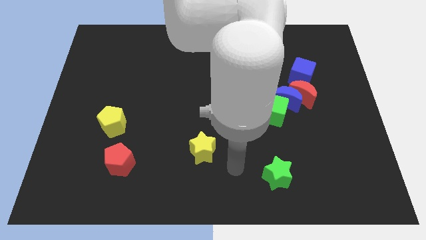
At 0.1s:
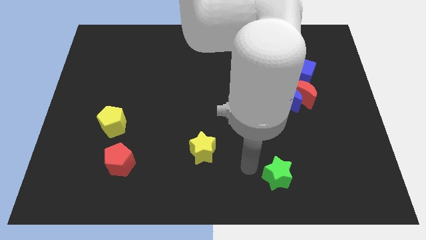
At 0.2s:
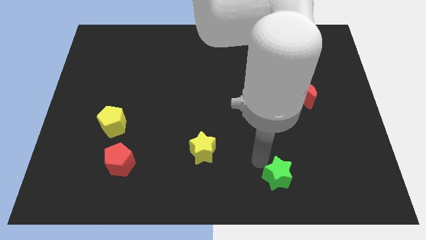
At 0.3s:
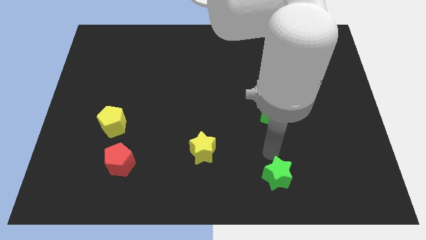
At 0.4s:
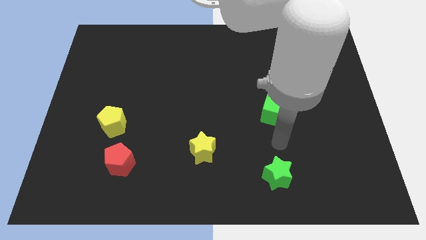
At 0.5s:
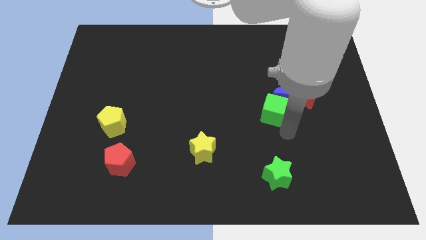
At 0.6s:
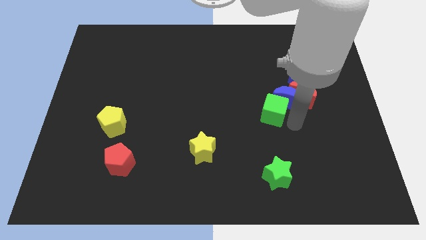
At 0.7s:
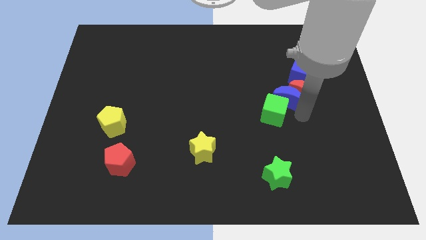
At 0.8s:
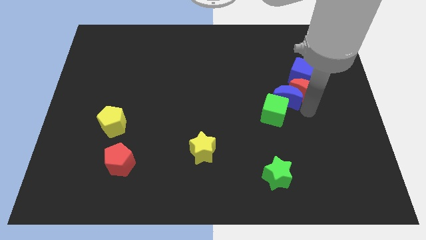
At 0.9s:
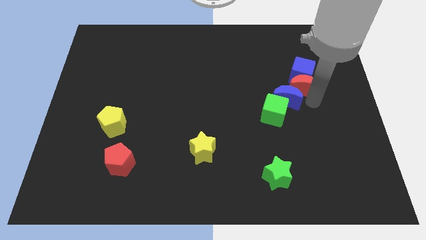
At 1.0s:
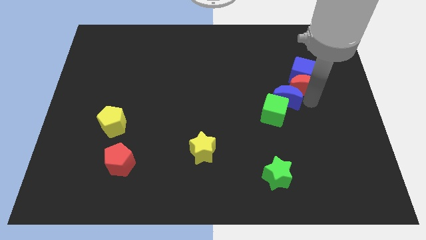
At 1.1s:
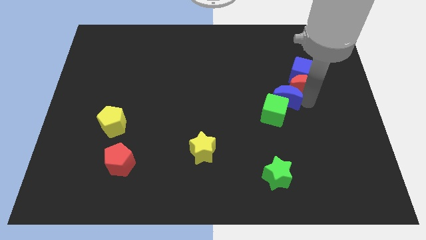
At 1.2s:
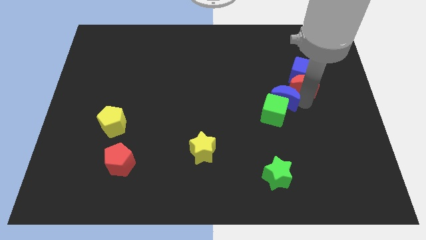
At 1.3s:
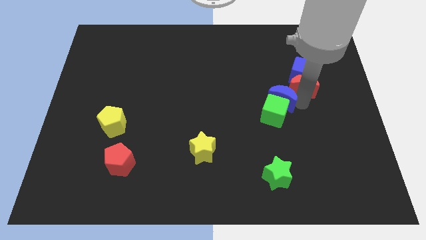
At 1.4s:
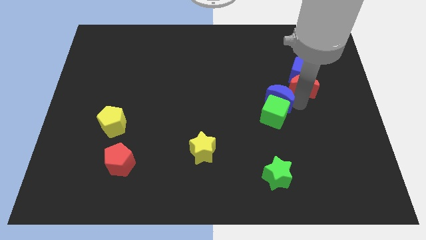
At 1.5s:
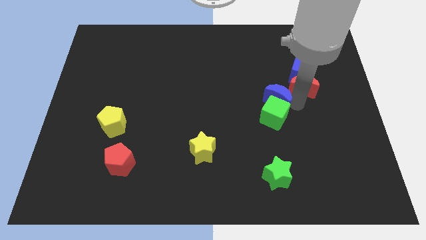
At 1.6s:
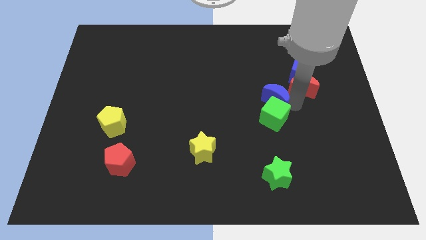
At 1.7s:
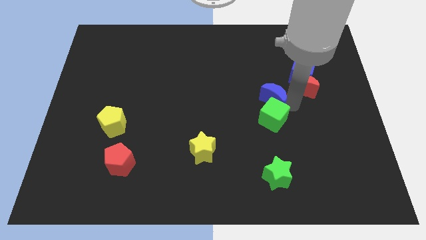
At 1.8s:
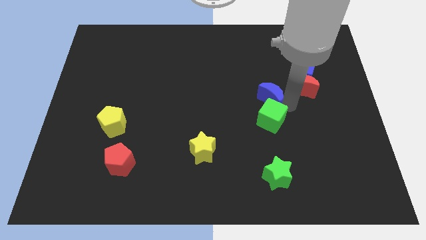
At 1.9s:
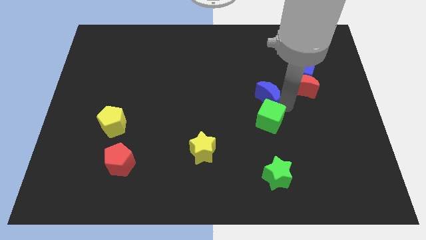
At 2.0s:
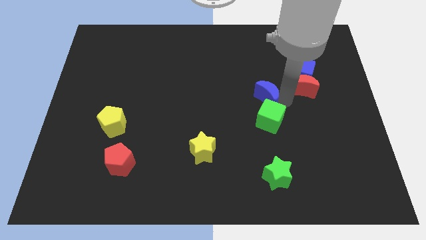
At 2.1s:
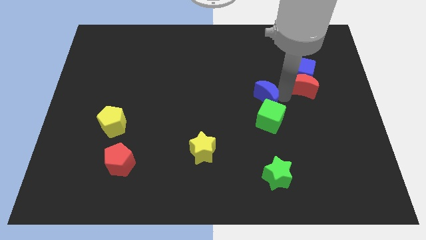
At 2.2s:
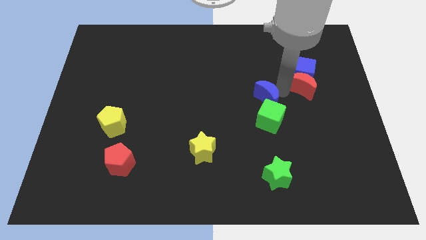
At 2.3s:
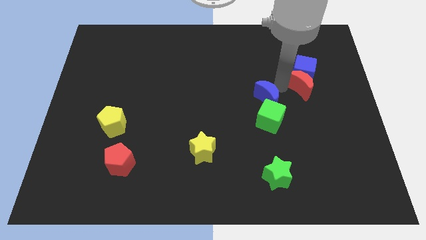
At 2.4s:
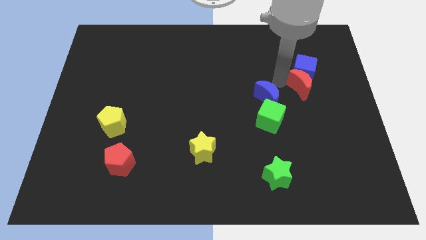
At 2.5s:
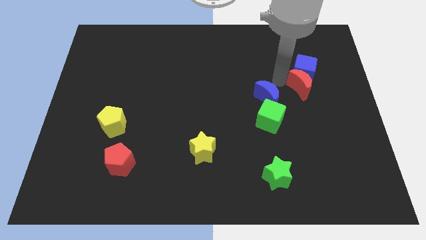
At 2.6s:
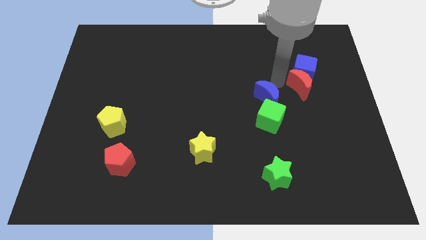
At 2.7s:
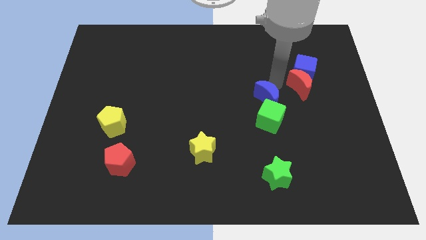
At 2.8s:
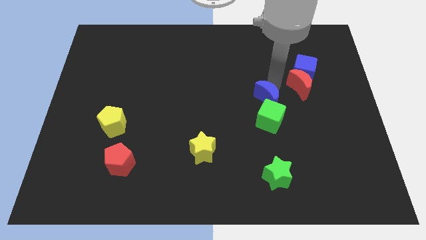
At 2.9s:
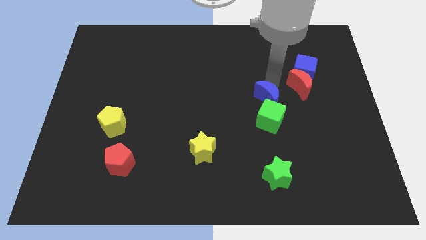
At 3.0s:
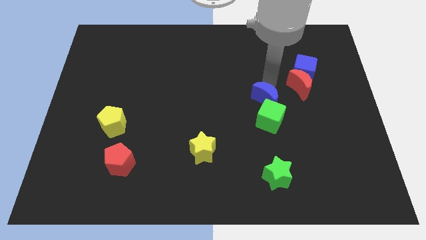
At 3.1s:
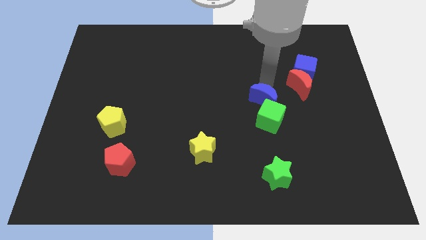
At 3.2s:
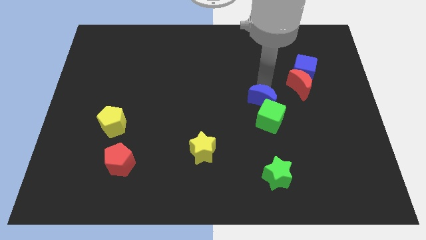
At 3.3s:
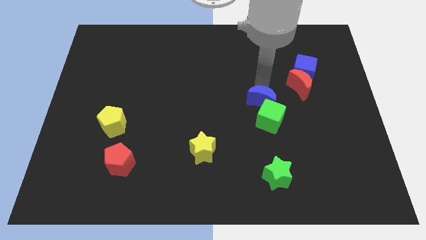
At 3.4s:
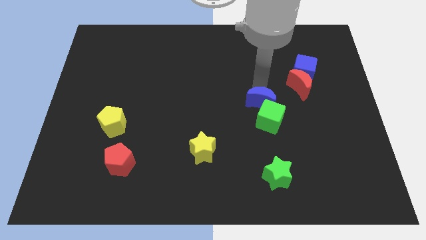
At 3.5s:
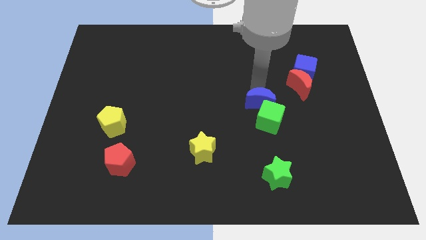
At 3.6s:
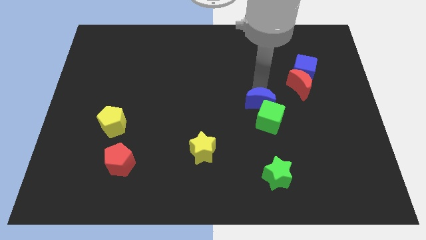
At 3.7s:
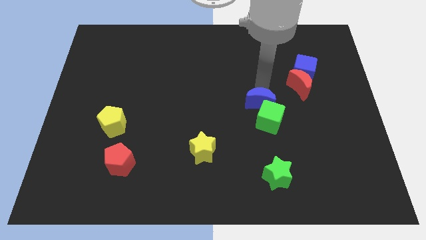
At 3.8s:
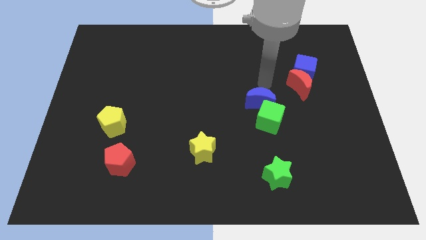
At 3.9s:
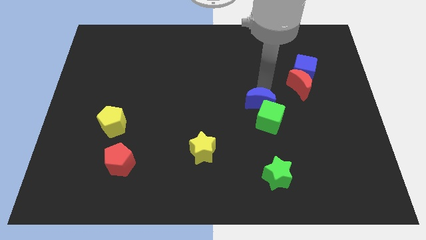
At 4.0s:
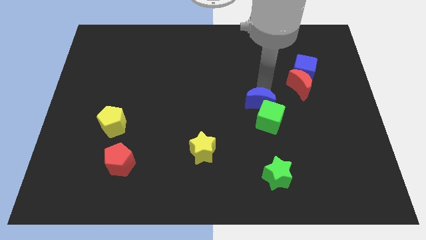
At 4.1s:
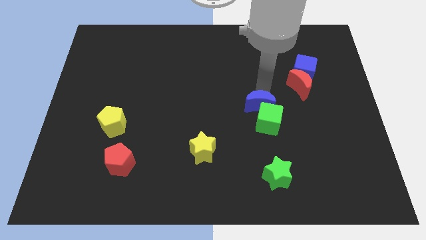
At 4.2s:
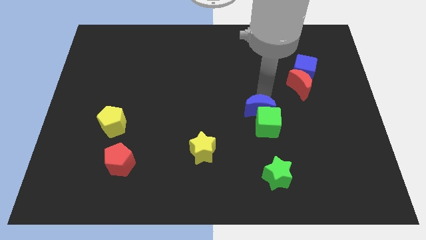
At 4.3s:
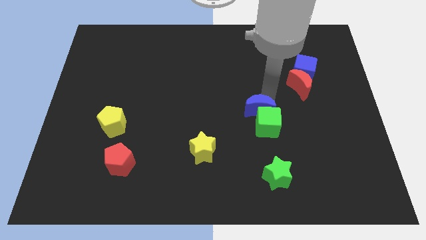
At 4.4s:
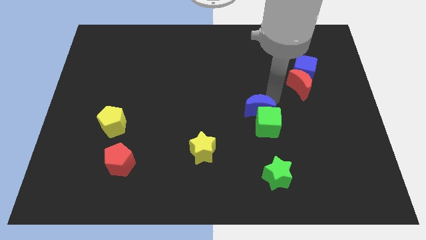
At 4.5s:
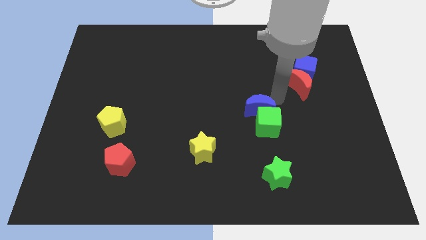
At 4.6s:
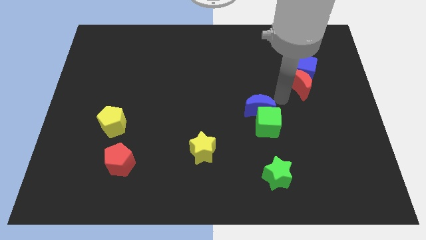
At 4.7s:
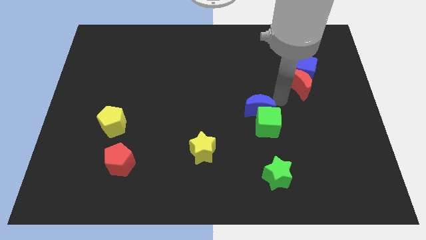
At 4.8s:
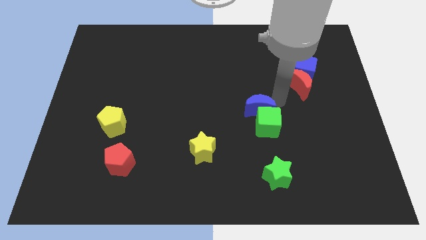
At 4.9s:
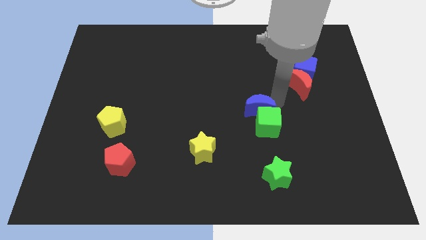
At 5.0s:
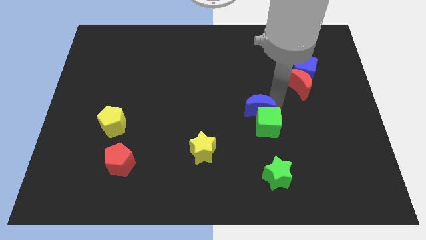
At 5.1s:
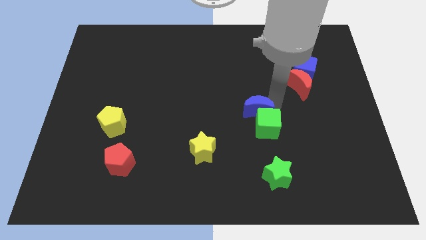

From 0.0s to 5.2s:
pull the blue moon apart from the red moon, green cube, and blue cube

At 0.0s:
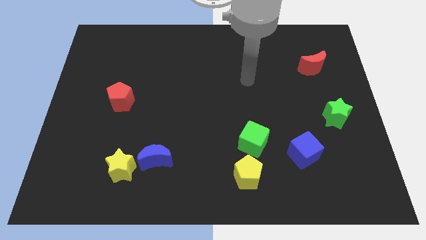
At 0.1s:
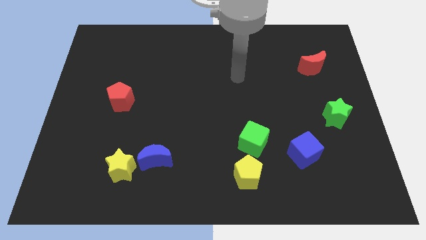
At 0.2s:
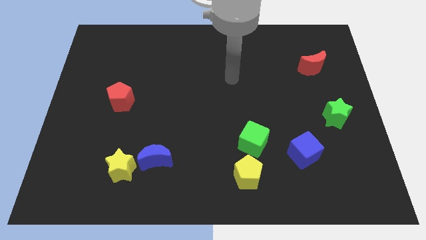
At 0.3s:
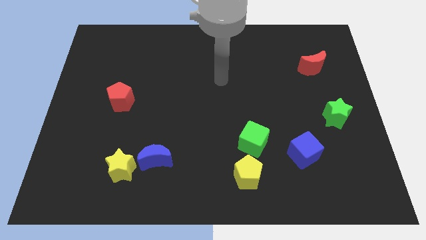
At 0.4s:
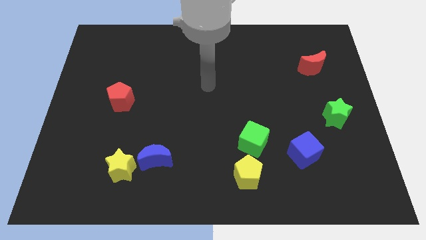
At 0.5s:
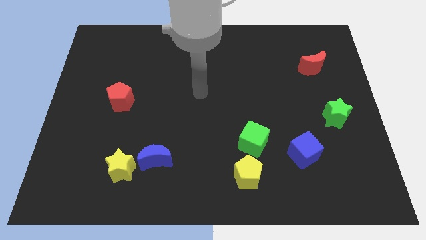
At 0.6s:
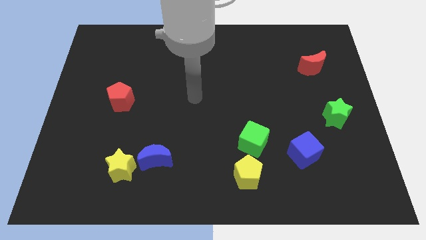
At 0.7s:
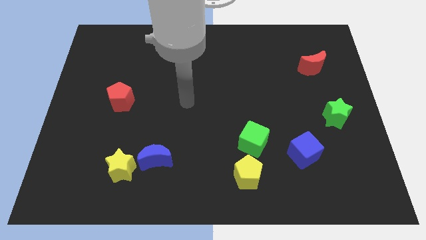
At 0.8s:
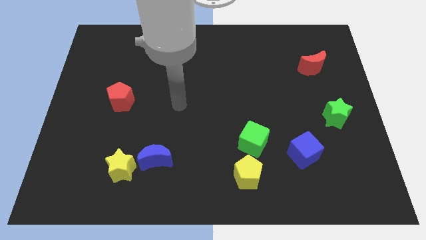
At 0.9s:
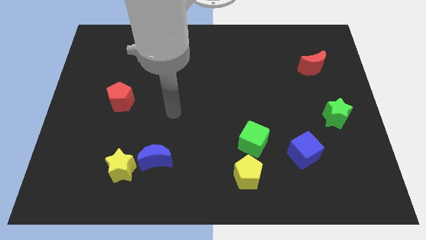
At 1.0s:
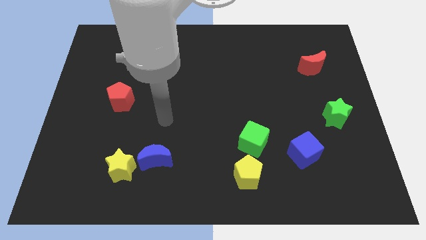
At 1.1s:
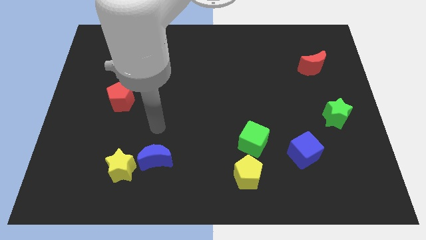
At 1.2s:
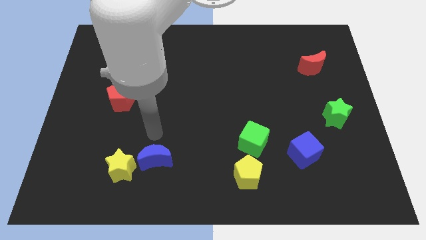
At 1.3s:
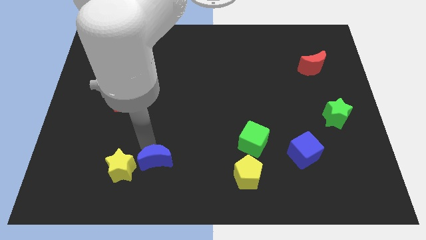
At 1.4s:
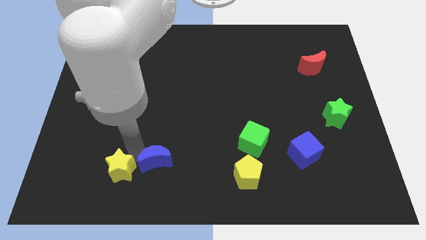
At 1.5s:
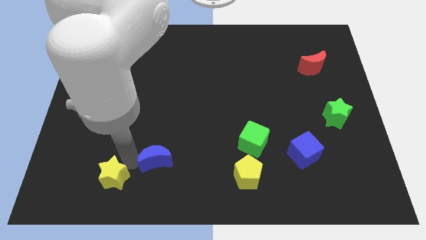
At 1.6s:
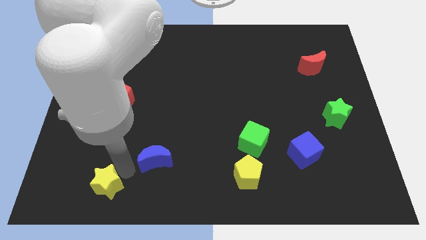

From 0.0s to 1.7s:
separate the blue moon from the yellow star

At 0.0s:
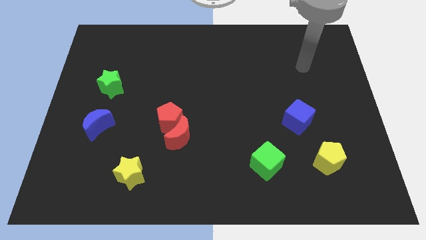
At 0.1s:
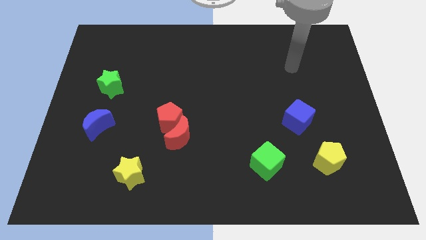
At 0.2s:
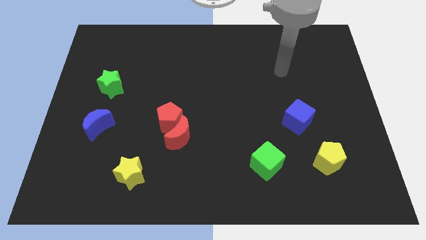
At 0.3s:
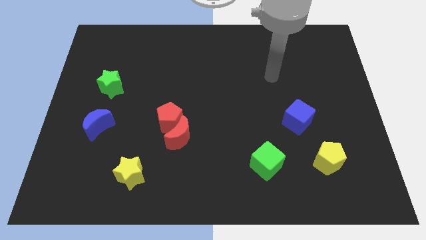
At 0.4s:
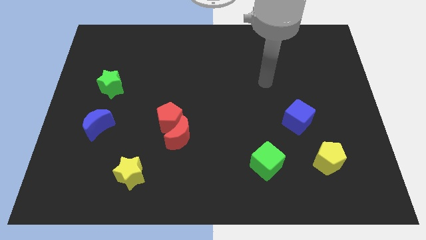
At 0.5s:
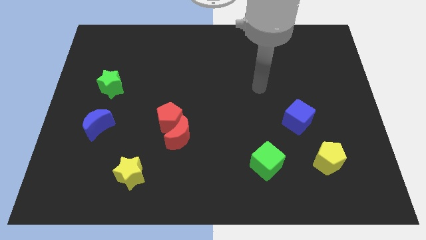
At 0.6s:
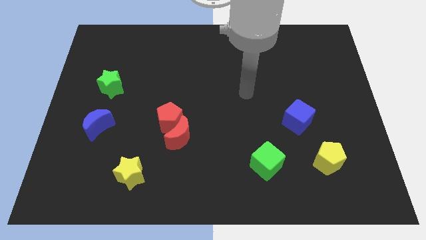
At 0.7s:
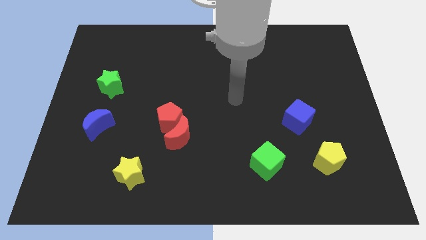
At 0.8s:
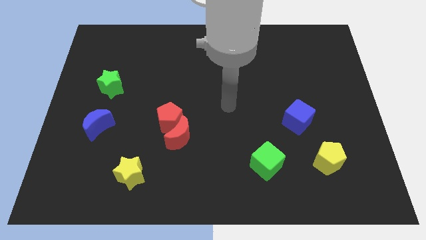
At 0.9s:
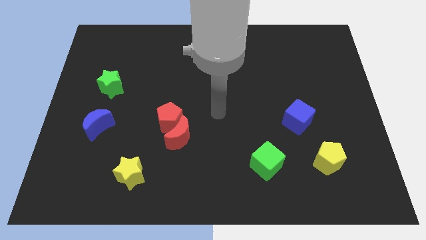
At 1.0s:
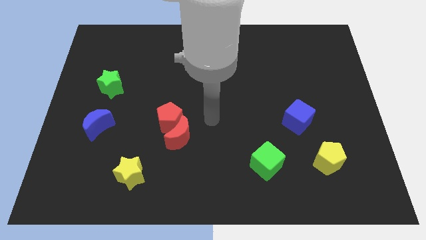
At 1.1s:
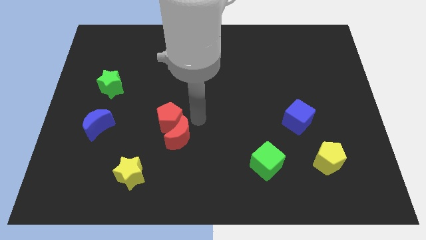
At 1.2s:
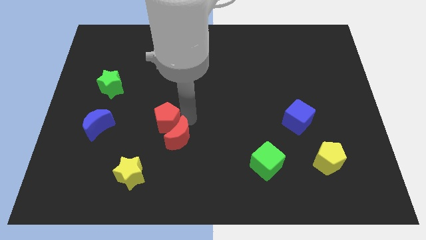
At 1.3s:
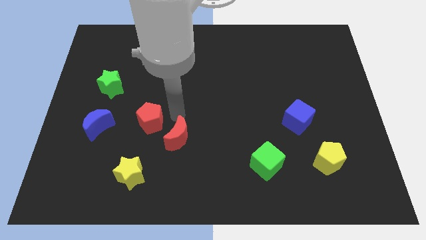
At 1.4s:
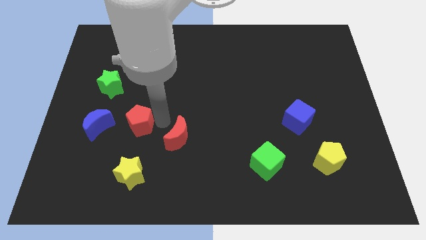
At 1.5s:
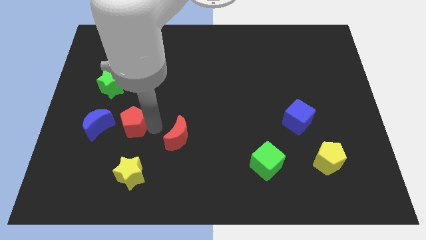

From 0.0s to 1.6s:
separate the red moon from the red pentagon

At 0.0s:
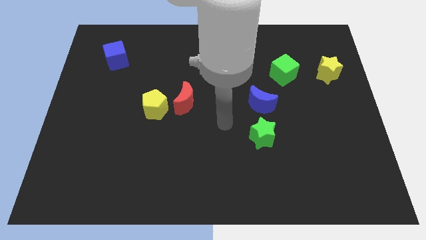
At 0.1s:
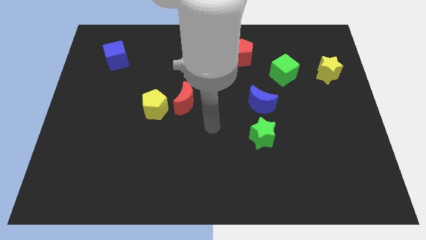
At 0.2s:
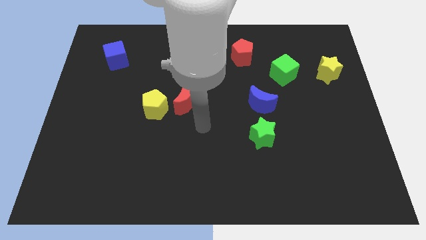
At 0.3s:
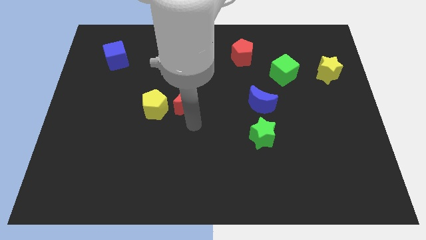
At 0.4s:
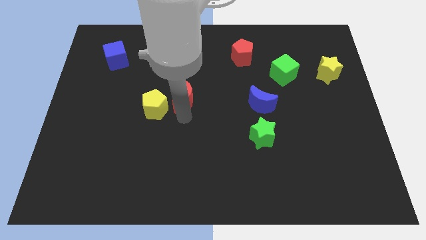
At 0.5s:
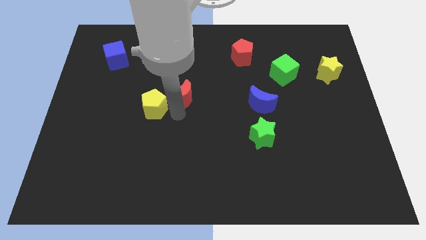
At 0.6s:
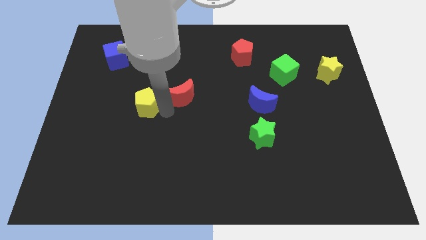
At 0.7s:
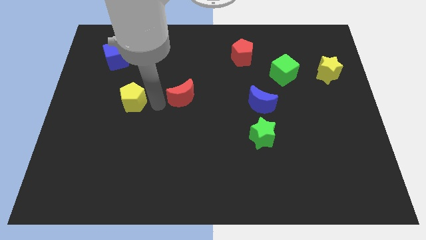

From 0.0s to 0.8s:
move the red moon away from the yellow pentagon

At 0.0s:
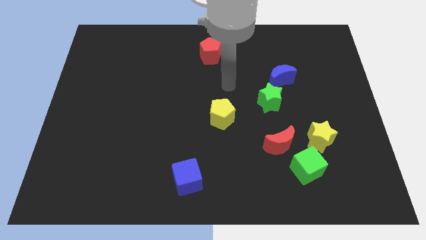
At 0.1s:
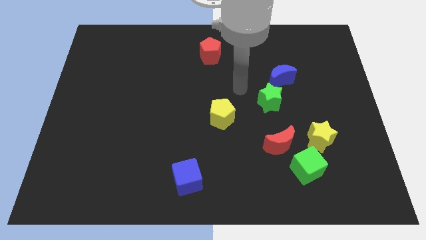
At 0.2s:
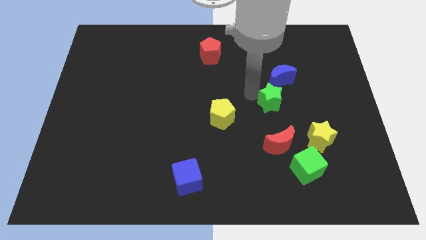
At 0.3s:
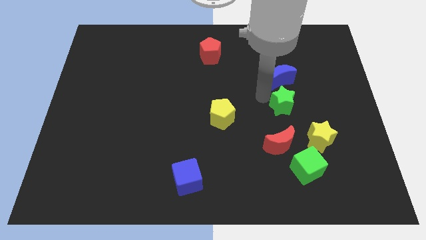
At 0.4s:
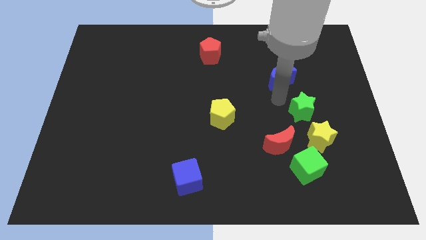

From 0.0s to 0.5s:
move the blue moon away from the green star
